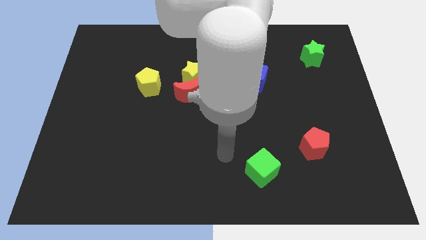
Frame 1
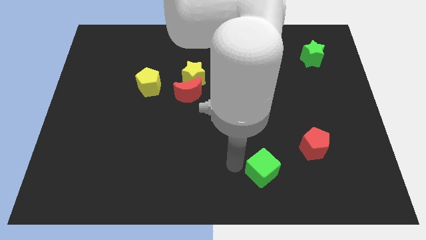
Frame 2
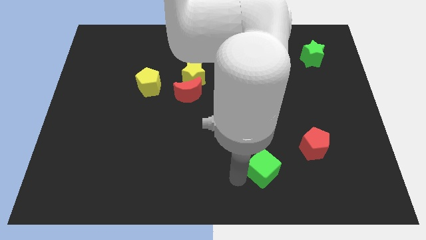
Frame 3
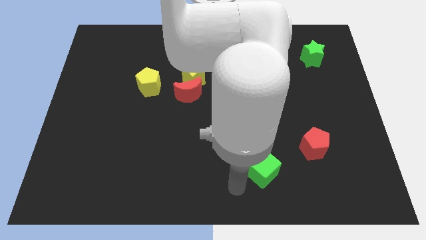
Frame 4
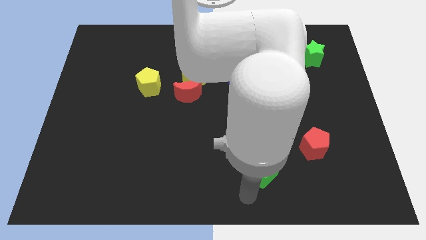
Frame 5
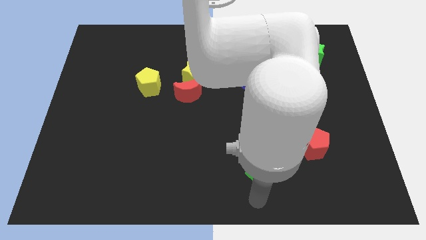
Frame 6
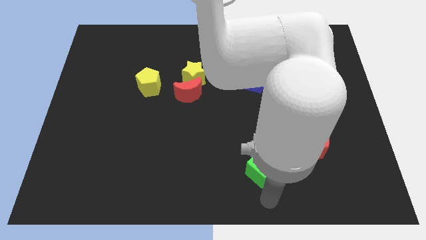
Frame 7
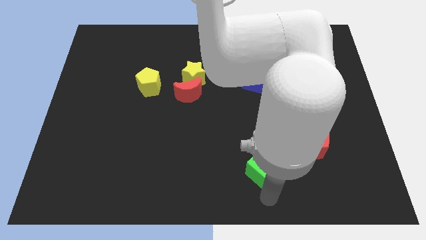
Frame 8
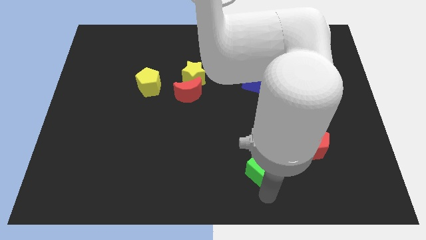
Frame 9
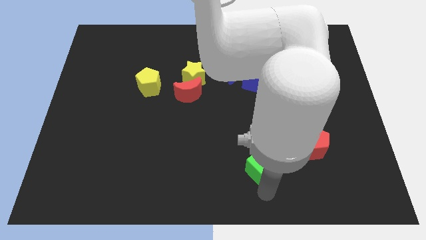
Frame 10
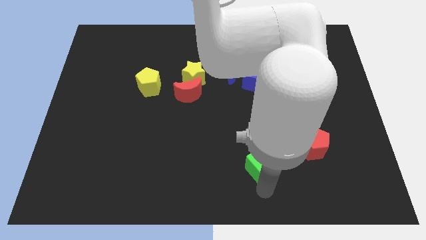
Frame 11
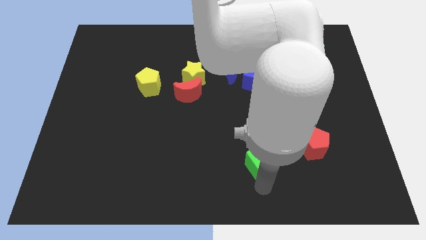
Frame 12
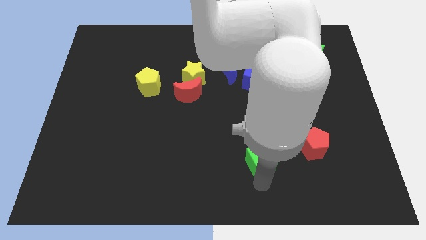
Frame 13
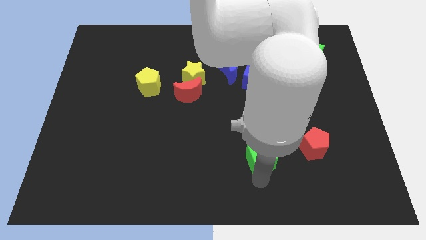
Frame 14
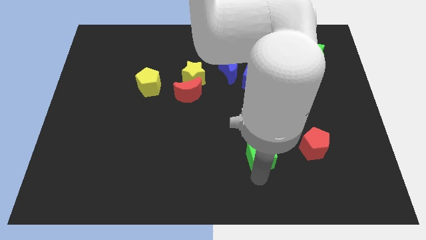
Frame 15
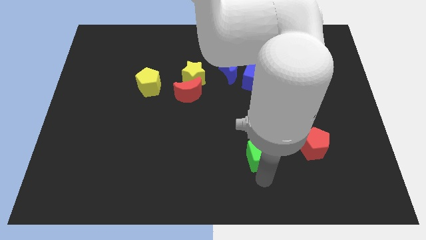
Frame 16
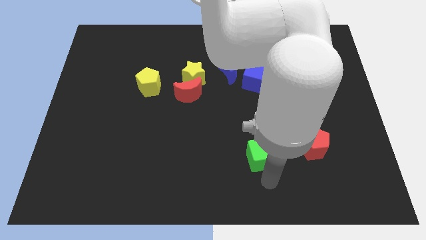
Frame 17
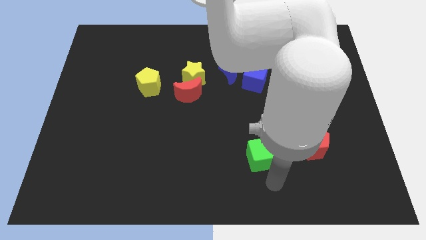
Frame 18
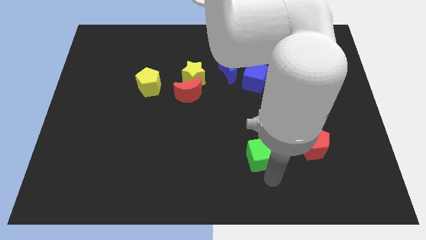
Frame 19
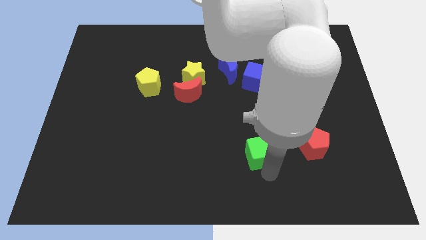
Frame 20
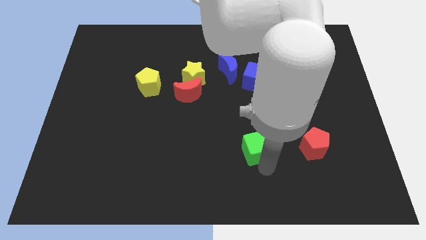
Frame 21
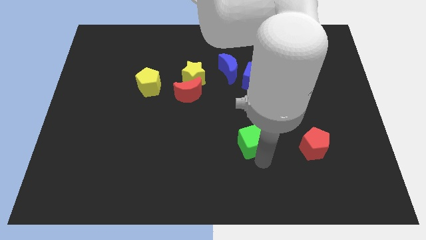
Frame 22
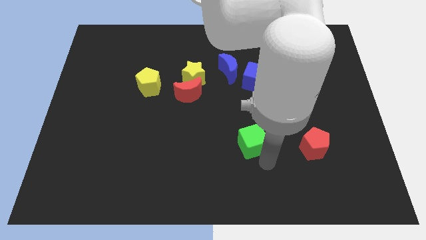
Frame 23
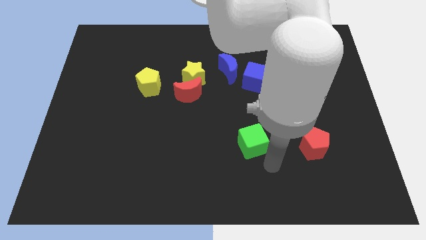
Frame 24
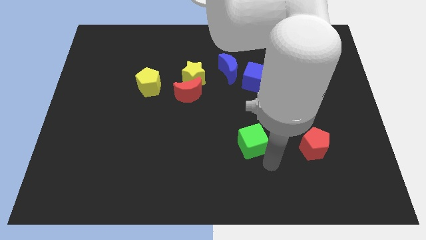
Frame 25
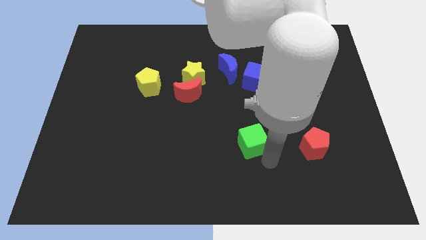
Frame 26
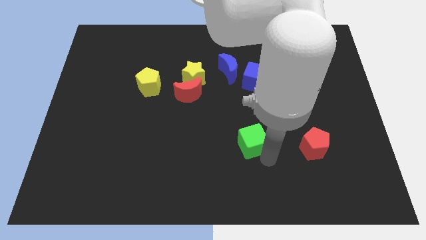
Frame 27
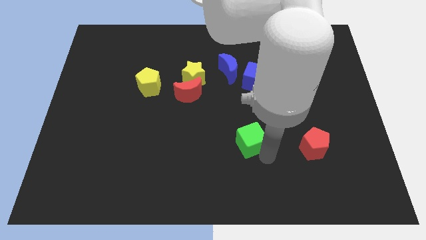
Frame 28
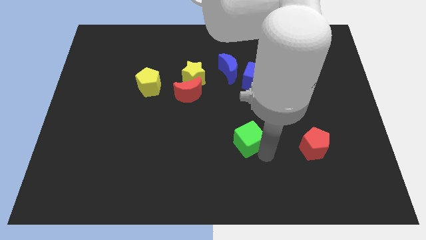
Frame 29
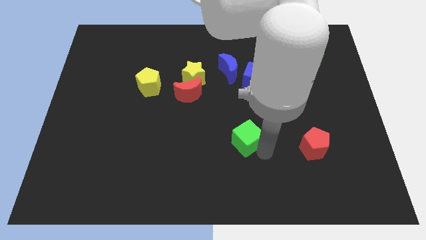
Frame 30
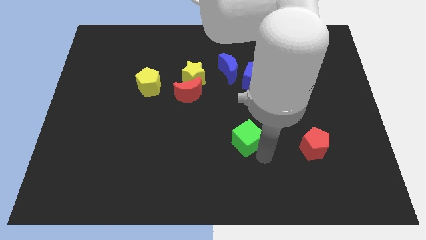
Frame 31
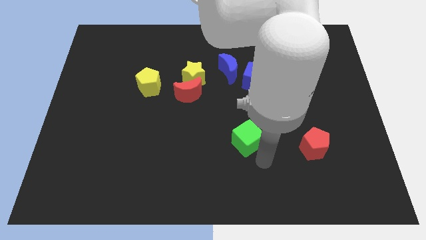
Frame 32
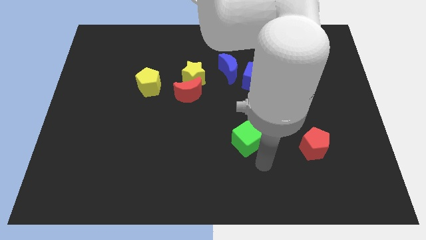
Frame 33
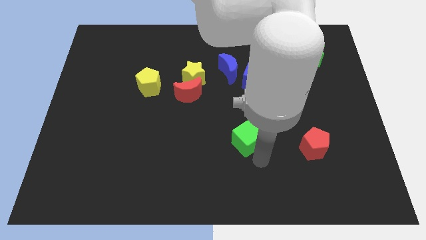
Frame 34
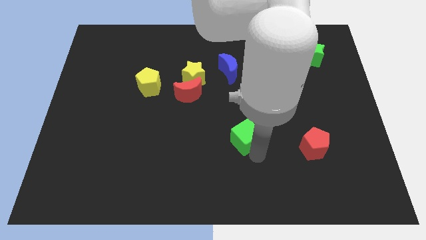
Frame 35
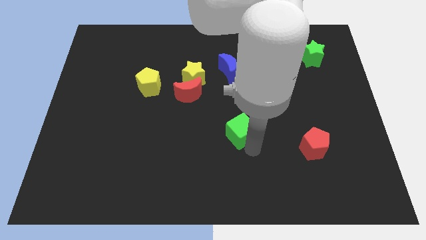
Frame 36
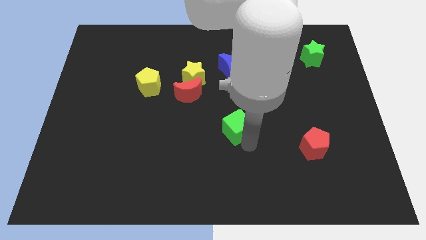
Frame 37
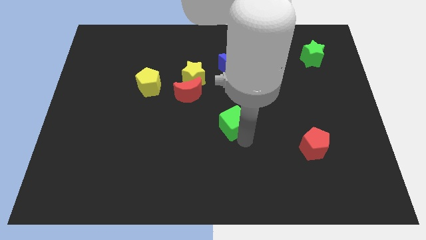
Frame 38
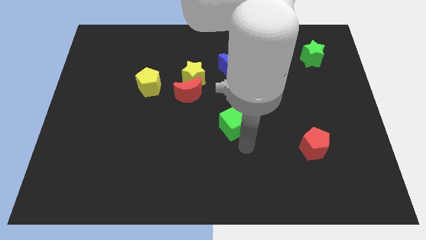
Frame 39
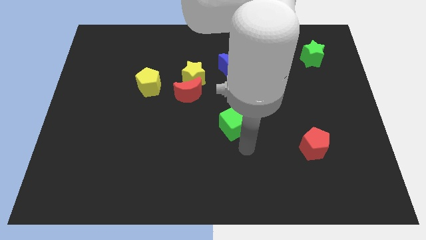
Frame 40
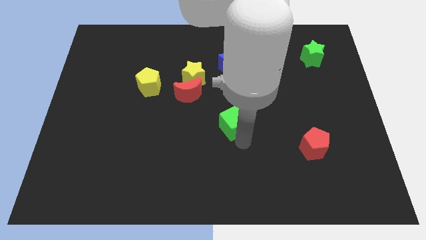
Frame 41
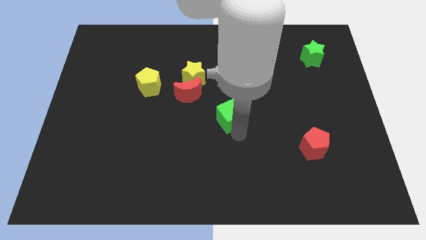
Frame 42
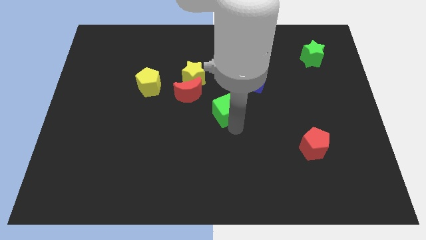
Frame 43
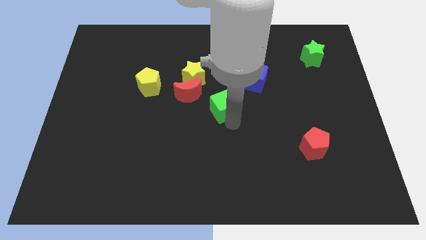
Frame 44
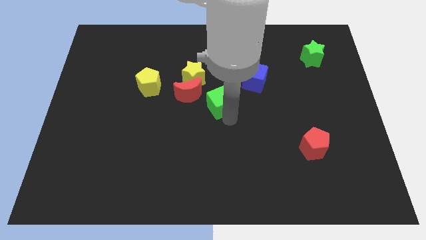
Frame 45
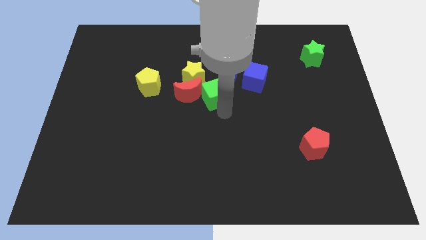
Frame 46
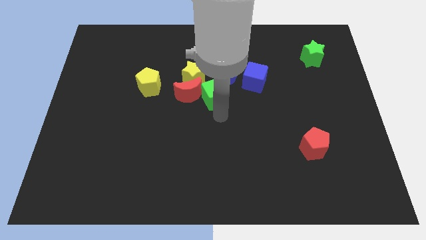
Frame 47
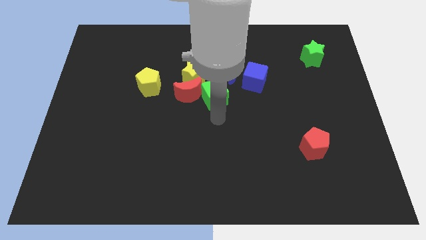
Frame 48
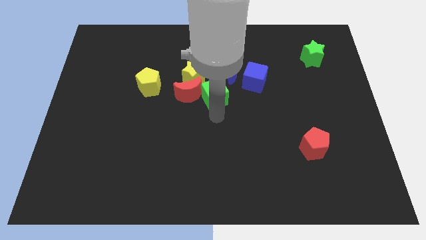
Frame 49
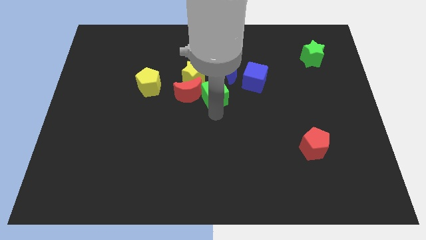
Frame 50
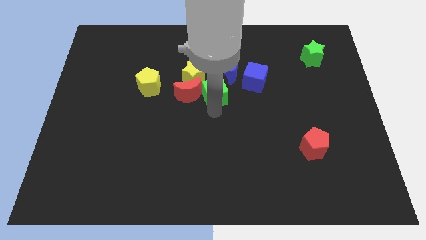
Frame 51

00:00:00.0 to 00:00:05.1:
push the green cube just left of the blue cube

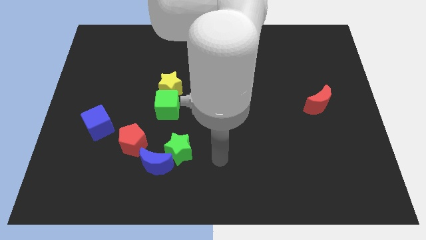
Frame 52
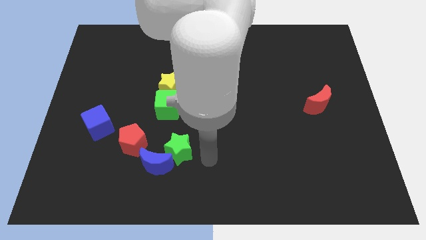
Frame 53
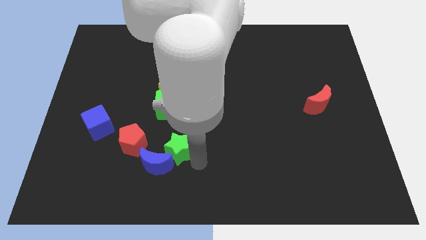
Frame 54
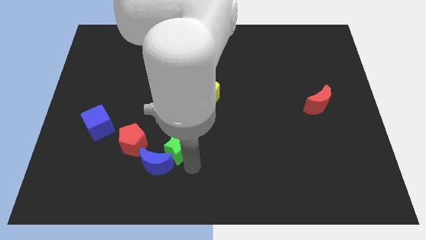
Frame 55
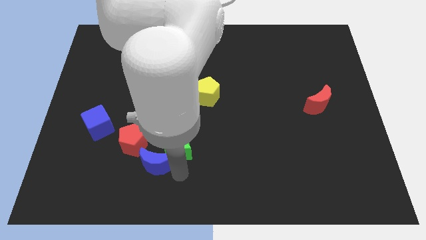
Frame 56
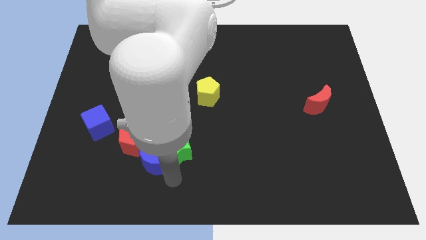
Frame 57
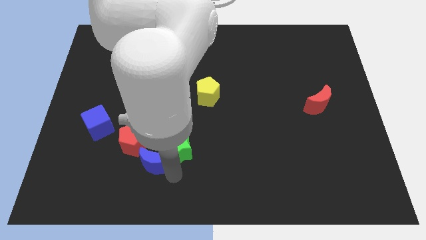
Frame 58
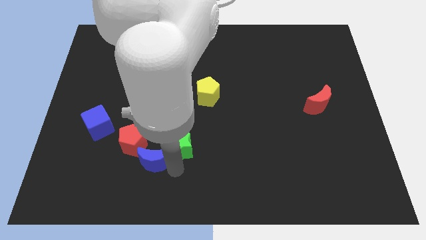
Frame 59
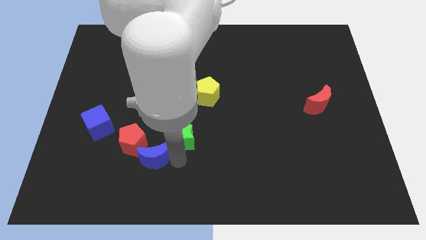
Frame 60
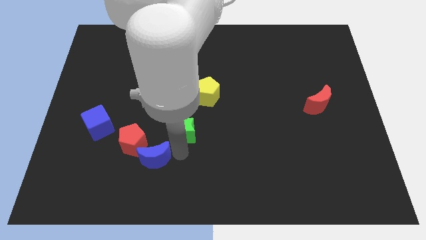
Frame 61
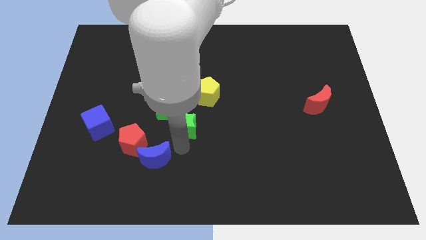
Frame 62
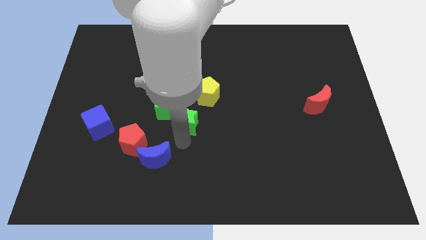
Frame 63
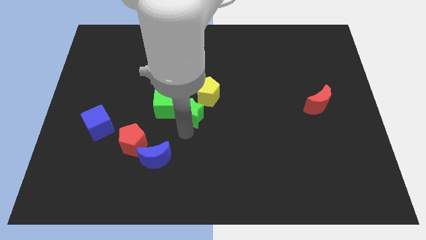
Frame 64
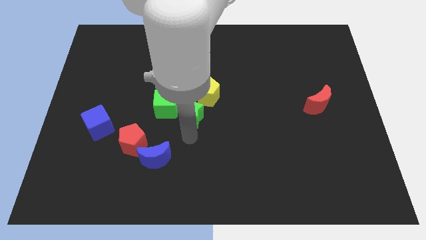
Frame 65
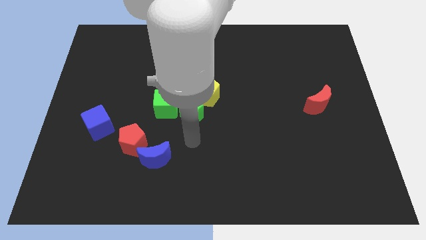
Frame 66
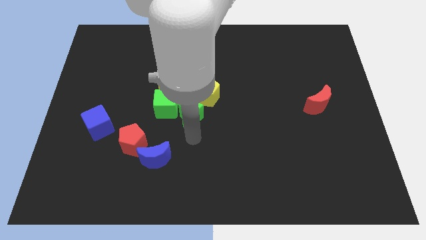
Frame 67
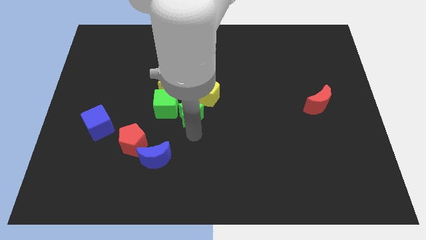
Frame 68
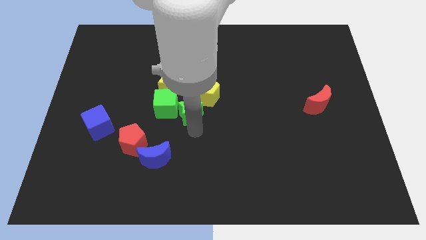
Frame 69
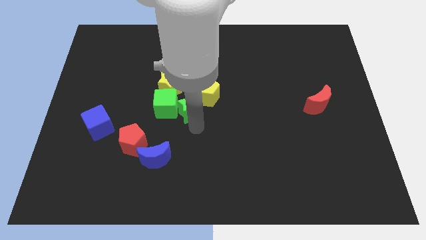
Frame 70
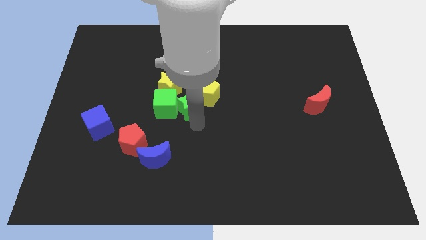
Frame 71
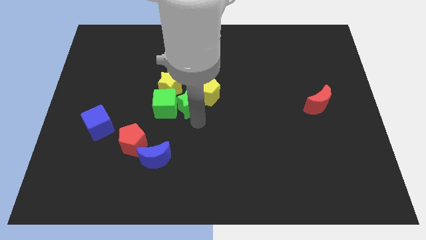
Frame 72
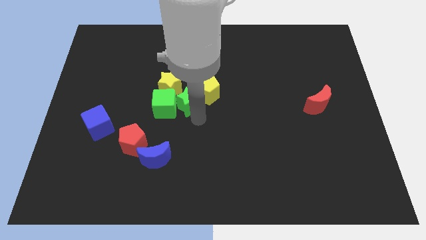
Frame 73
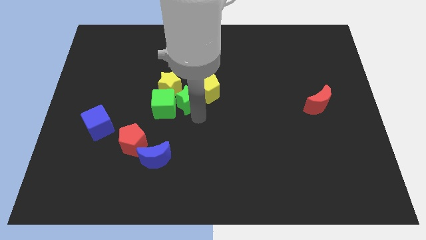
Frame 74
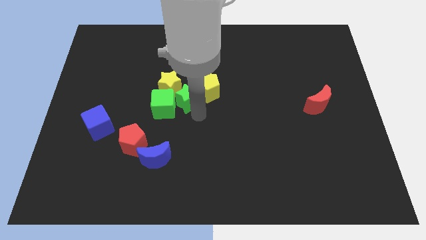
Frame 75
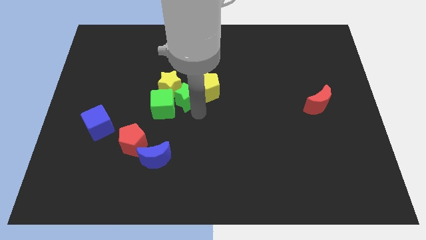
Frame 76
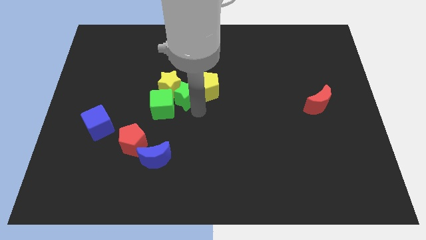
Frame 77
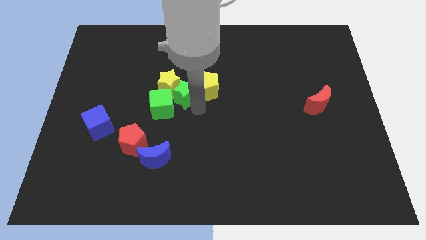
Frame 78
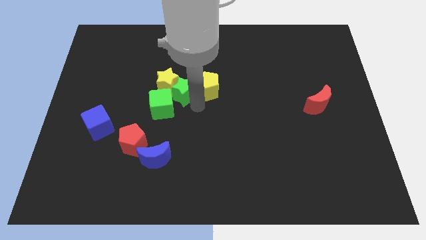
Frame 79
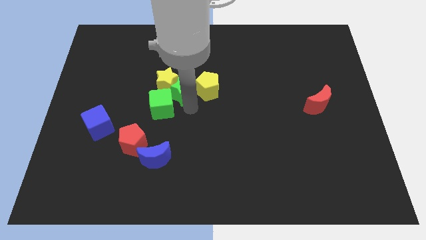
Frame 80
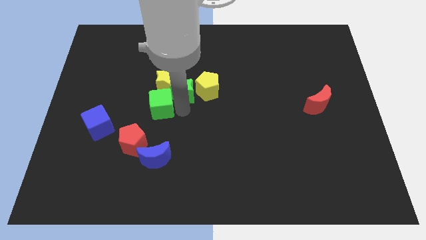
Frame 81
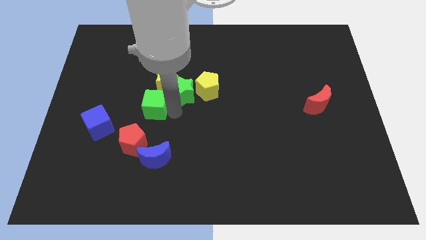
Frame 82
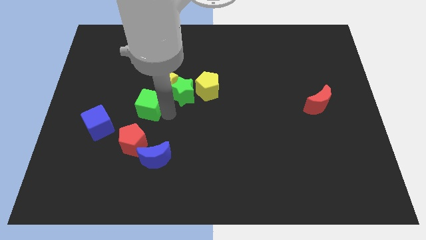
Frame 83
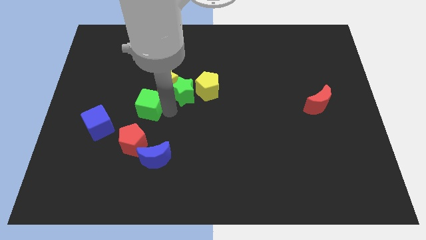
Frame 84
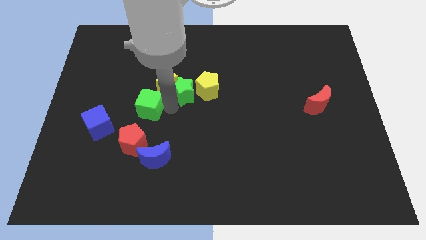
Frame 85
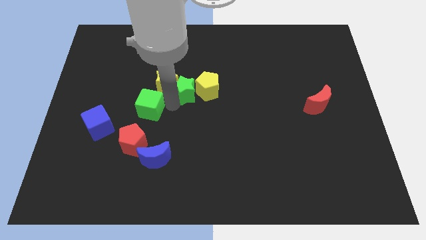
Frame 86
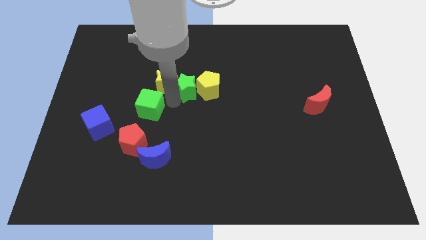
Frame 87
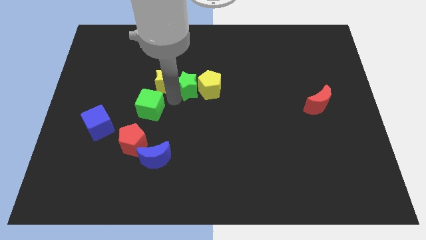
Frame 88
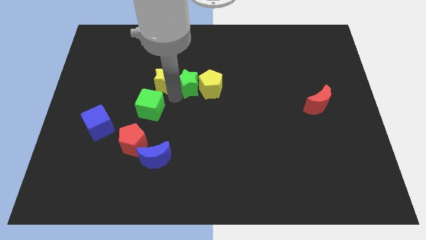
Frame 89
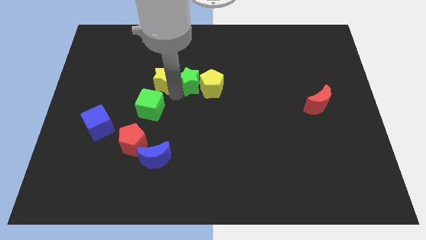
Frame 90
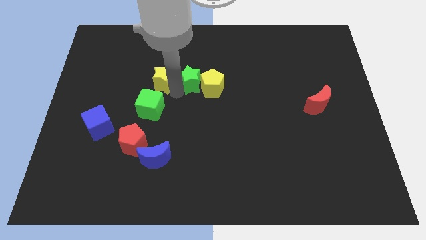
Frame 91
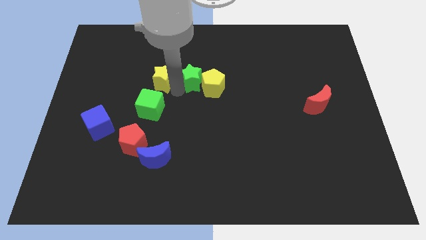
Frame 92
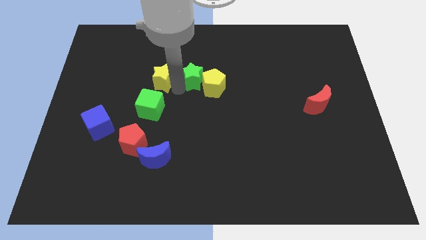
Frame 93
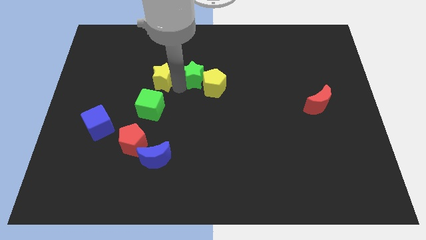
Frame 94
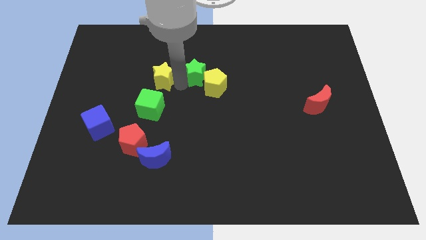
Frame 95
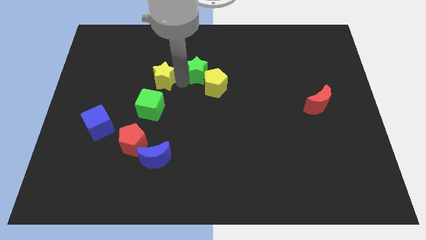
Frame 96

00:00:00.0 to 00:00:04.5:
put the green star to the top side of the yellow pentagon
